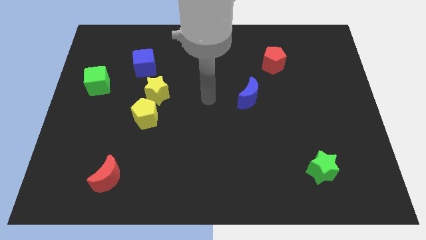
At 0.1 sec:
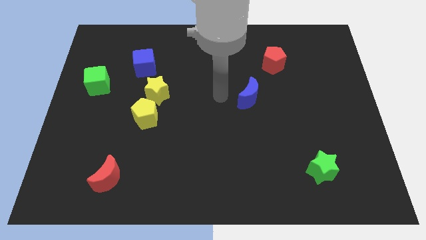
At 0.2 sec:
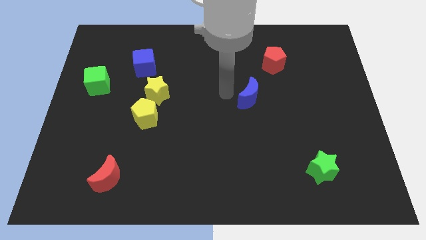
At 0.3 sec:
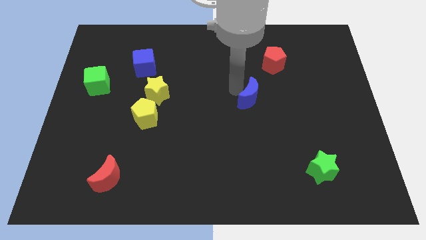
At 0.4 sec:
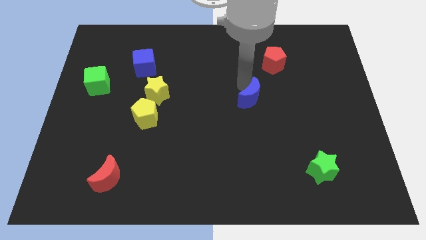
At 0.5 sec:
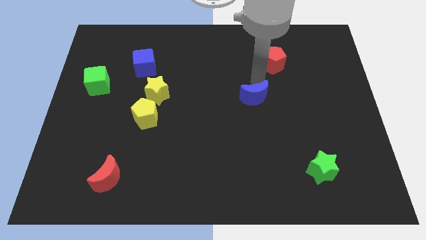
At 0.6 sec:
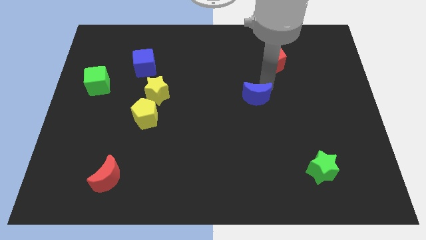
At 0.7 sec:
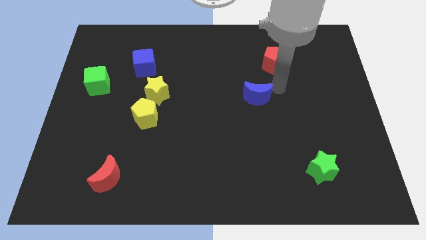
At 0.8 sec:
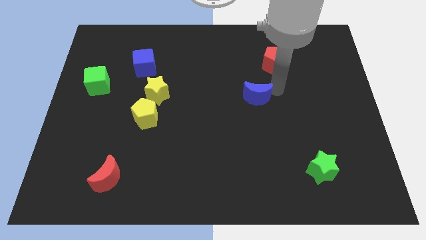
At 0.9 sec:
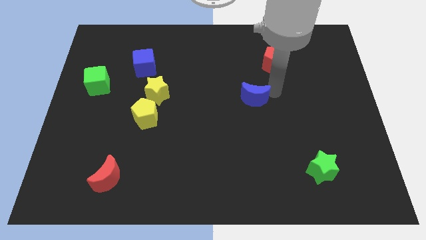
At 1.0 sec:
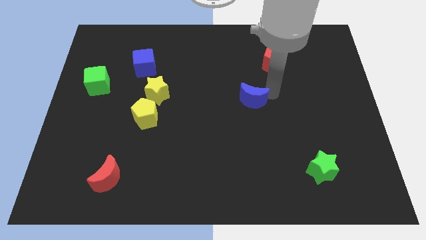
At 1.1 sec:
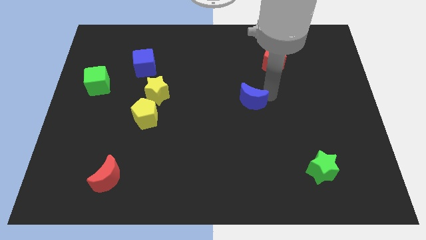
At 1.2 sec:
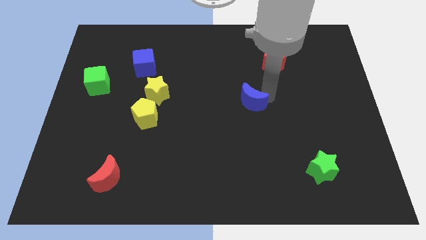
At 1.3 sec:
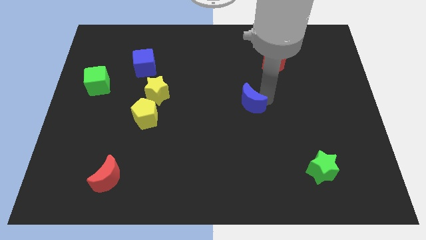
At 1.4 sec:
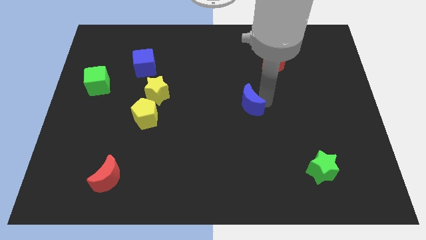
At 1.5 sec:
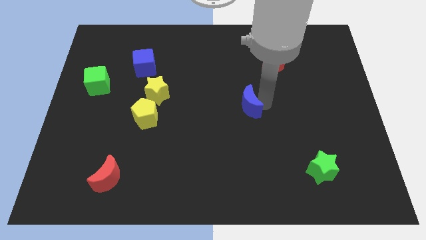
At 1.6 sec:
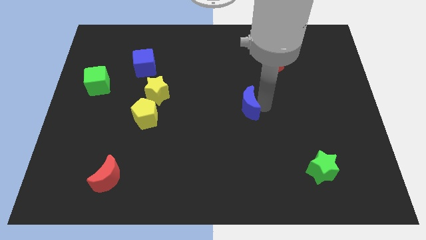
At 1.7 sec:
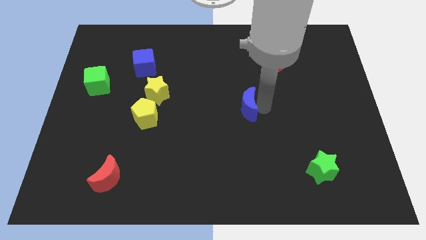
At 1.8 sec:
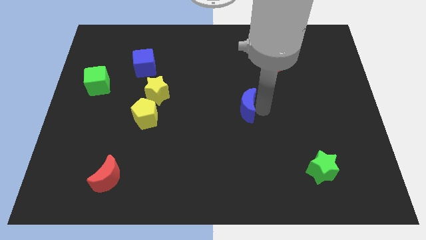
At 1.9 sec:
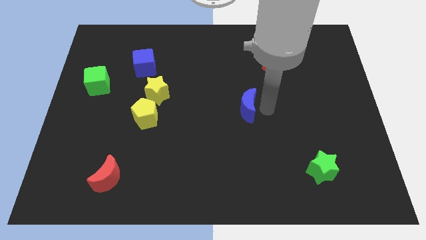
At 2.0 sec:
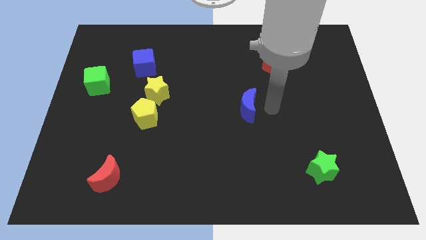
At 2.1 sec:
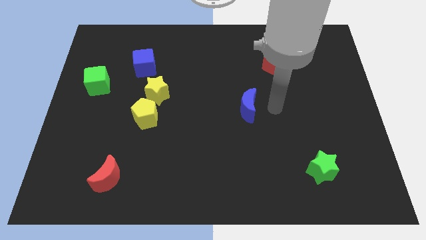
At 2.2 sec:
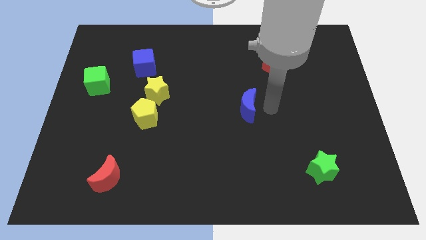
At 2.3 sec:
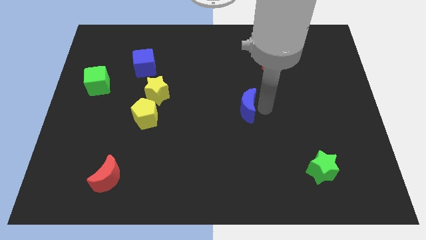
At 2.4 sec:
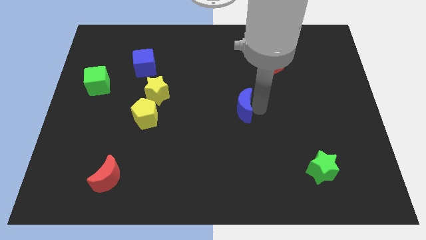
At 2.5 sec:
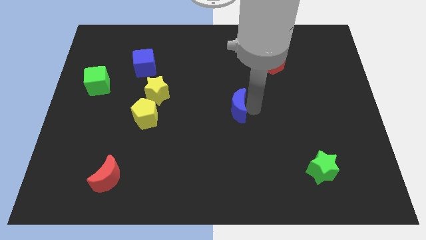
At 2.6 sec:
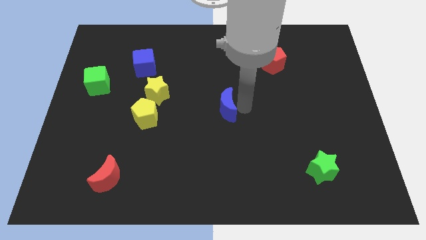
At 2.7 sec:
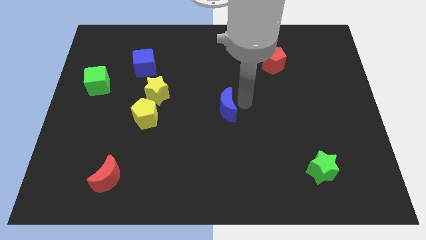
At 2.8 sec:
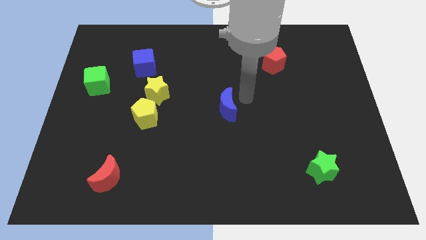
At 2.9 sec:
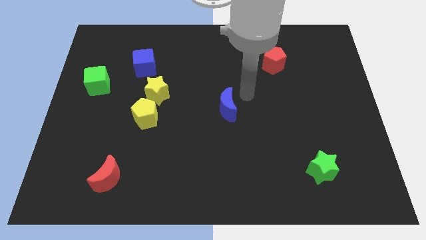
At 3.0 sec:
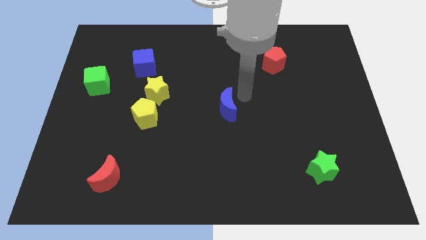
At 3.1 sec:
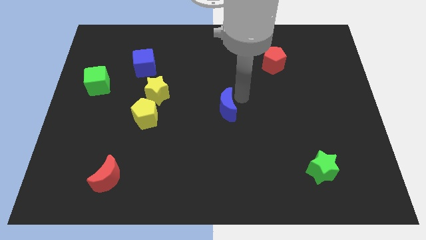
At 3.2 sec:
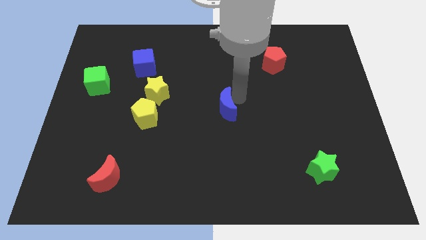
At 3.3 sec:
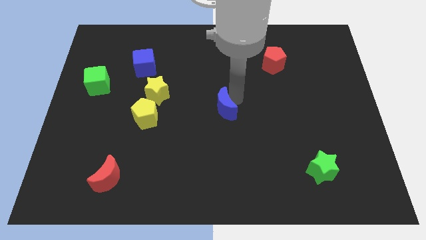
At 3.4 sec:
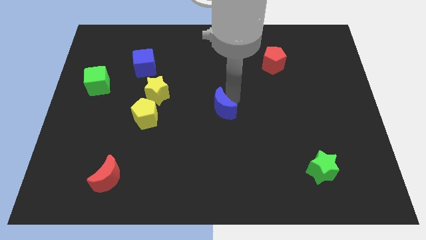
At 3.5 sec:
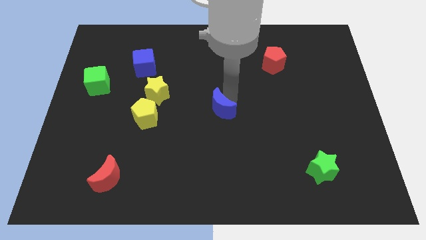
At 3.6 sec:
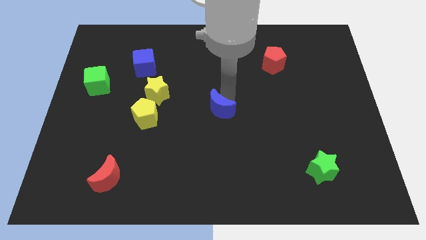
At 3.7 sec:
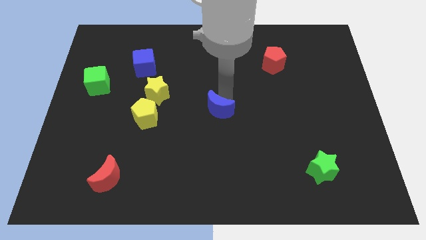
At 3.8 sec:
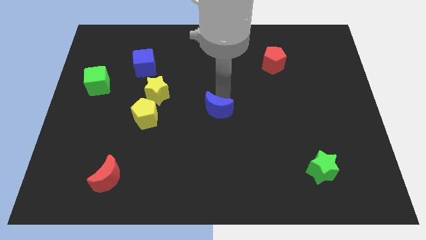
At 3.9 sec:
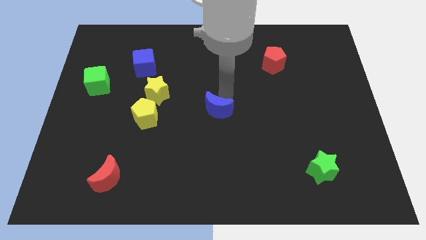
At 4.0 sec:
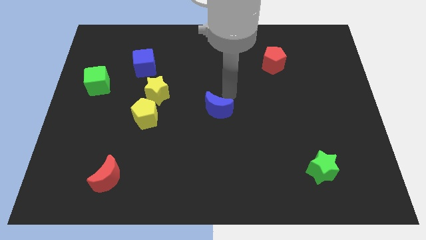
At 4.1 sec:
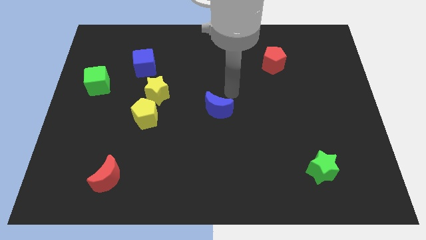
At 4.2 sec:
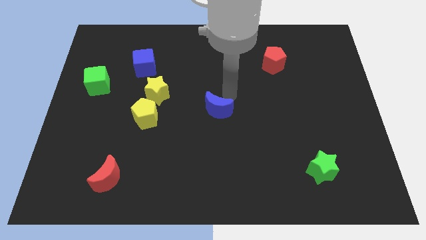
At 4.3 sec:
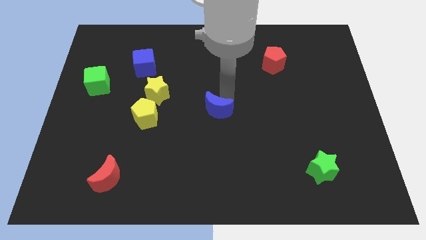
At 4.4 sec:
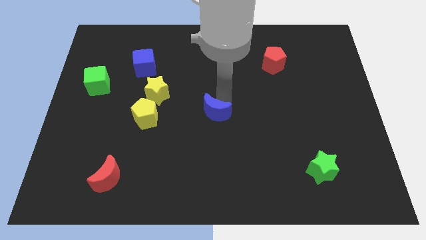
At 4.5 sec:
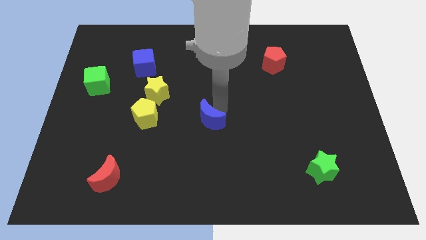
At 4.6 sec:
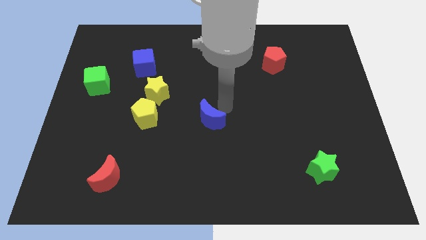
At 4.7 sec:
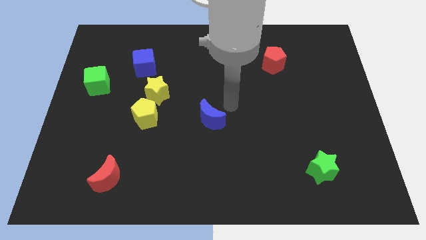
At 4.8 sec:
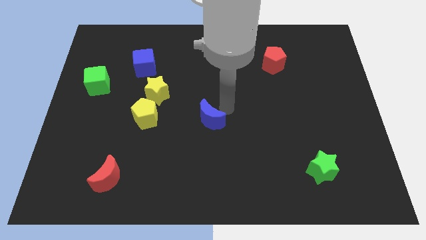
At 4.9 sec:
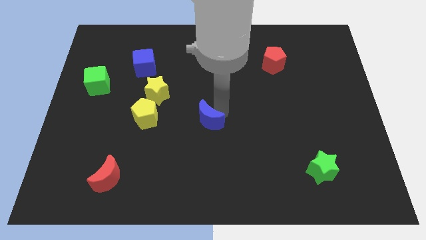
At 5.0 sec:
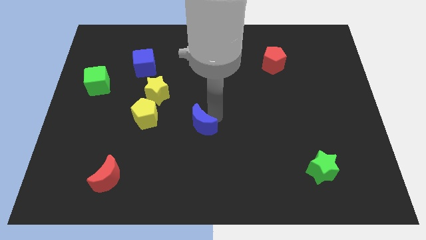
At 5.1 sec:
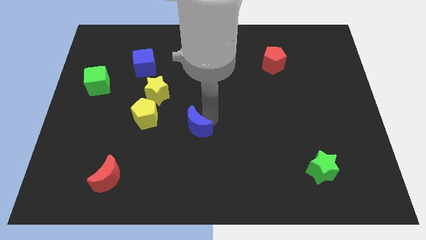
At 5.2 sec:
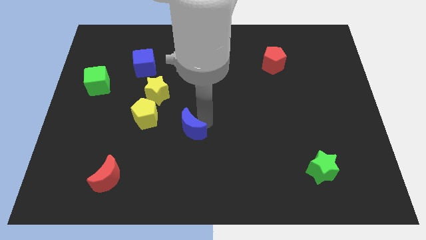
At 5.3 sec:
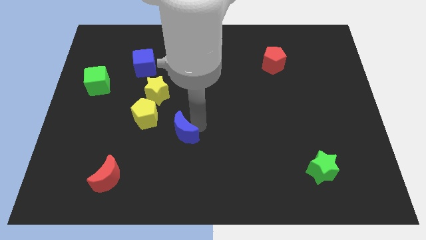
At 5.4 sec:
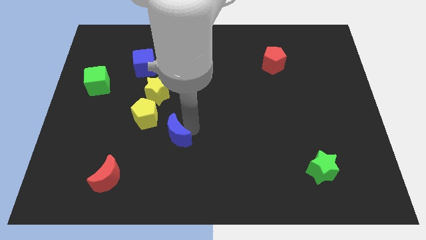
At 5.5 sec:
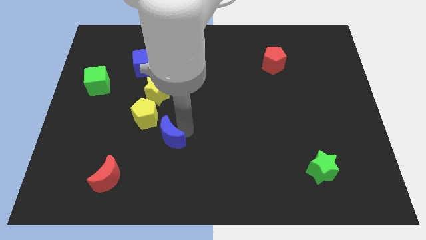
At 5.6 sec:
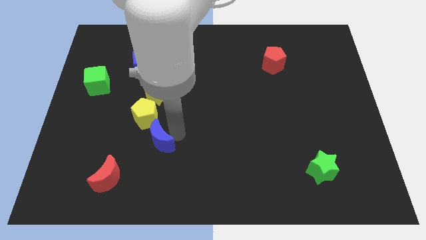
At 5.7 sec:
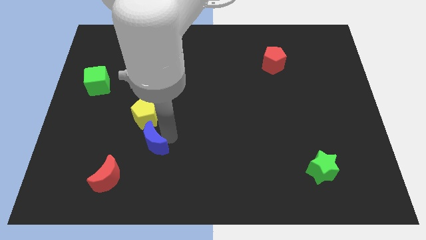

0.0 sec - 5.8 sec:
slide the blue moon diagonally up and to the right of the red moon

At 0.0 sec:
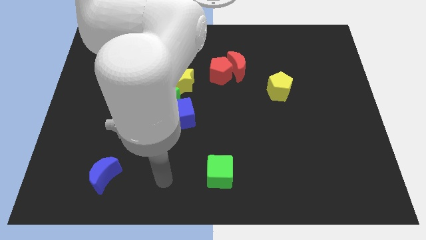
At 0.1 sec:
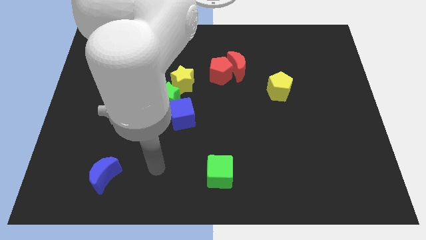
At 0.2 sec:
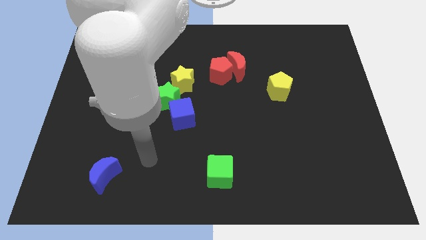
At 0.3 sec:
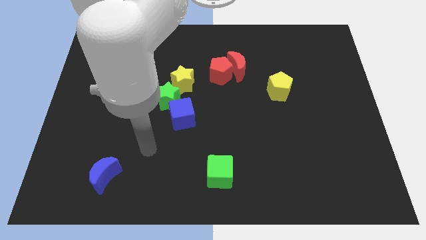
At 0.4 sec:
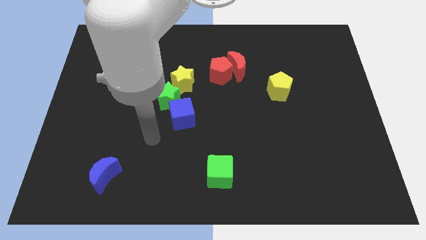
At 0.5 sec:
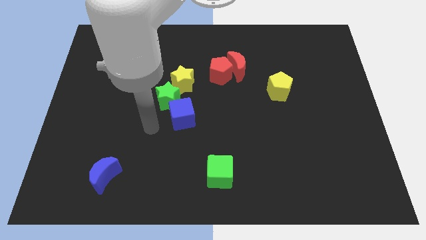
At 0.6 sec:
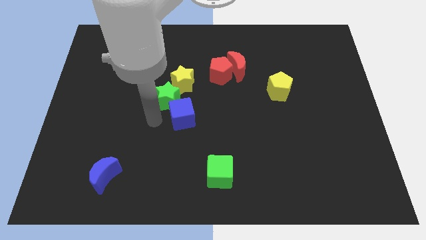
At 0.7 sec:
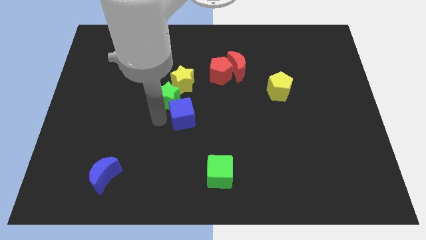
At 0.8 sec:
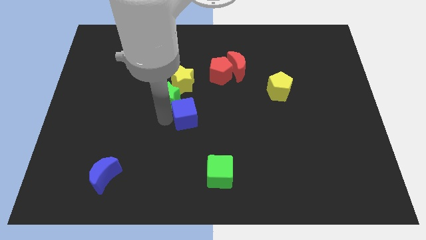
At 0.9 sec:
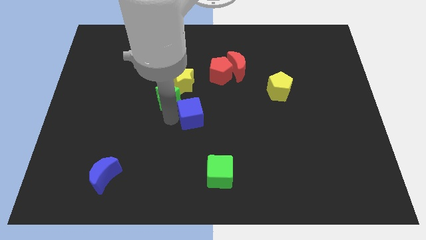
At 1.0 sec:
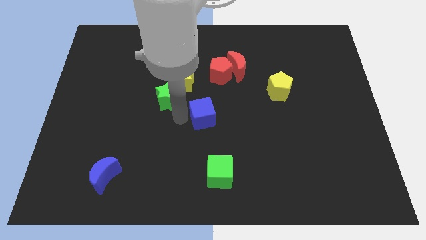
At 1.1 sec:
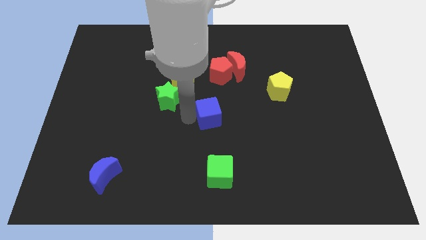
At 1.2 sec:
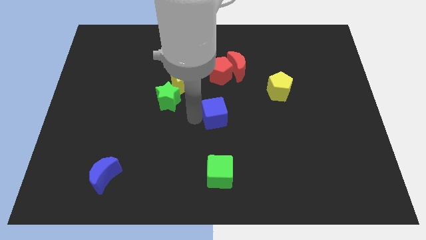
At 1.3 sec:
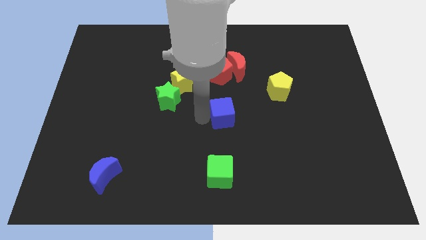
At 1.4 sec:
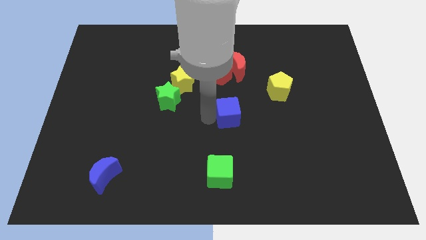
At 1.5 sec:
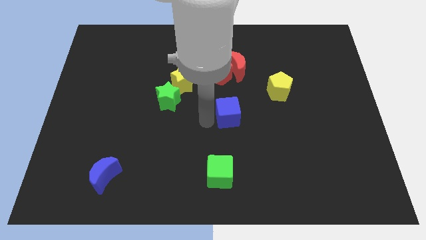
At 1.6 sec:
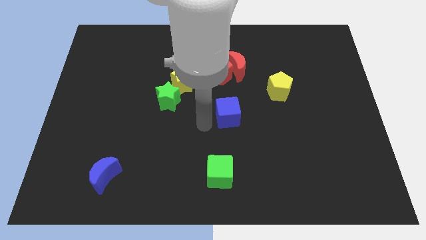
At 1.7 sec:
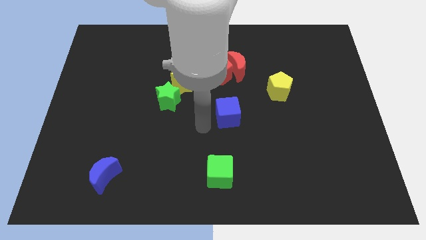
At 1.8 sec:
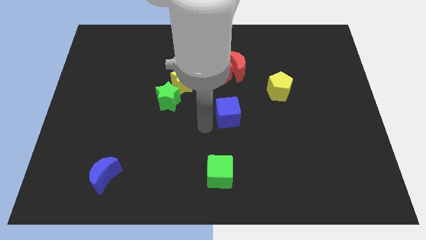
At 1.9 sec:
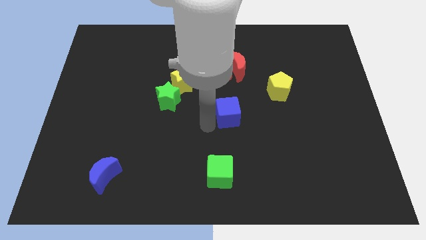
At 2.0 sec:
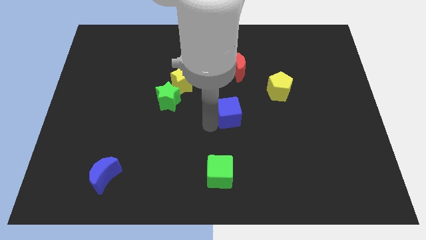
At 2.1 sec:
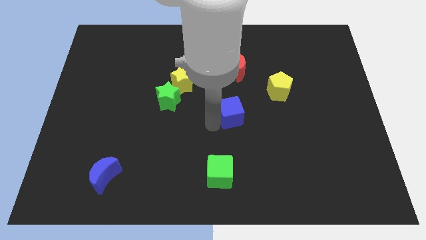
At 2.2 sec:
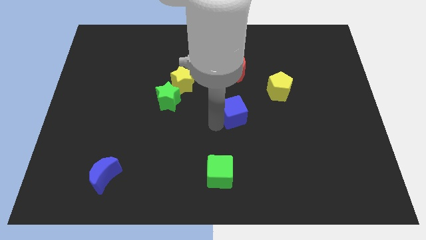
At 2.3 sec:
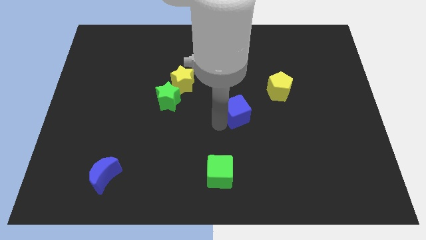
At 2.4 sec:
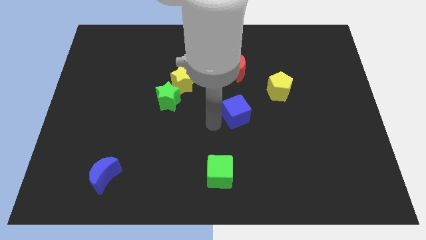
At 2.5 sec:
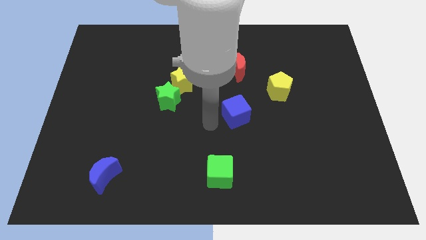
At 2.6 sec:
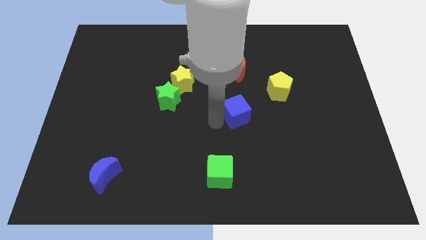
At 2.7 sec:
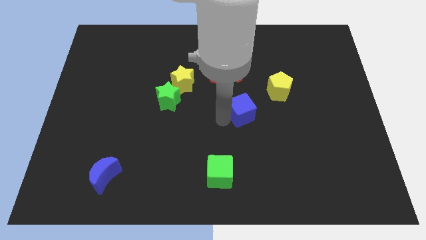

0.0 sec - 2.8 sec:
slide the blue cube diagonally down and to the left of the yellow pentagon
